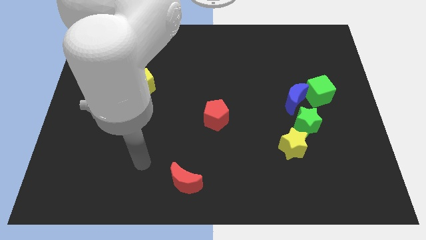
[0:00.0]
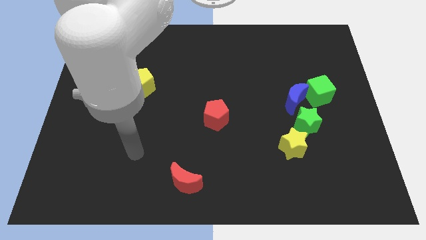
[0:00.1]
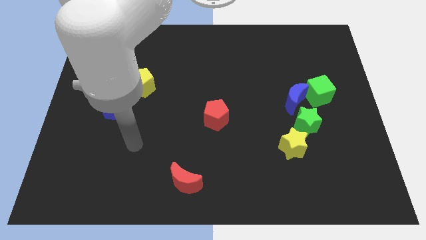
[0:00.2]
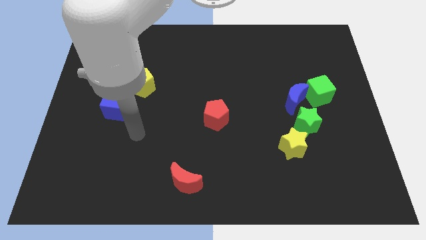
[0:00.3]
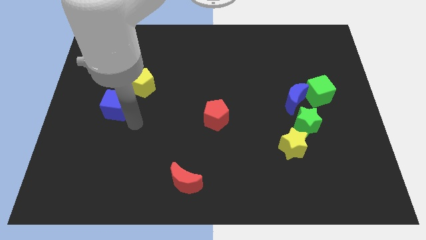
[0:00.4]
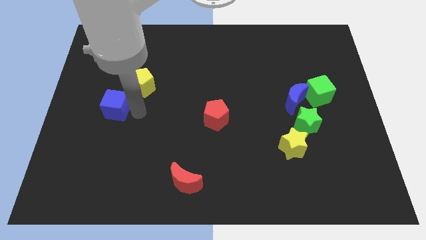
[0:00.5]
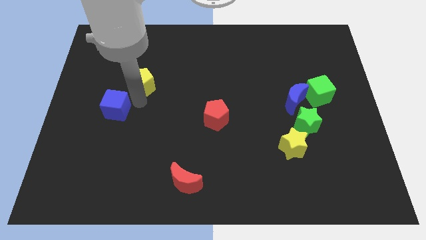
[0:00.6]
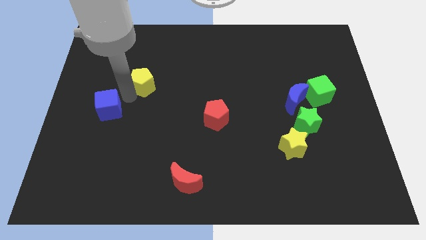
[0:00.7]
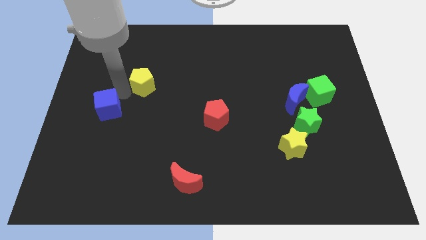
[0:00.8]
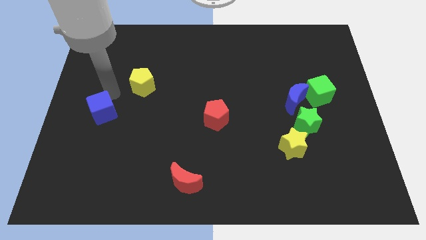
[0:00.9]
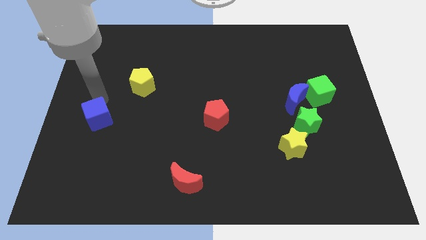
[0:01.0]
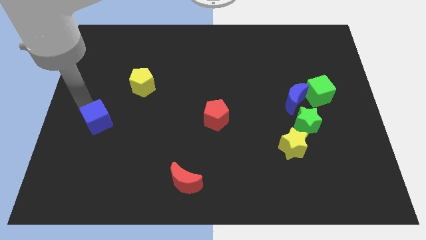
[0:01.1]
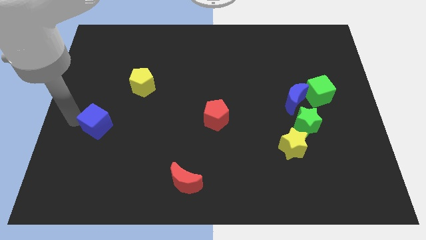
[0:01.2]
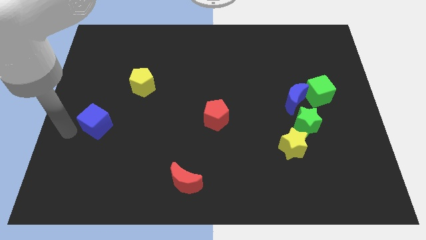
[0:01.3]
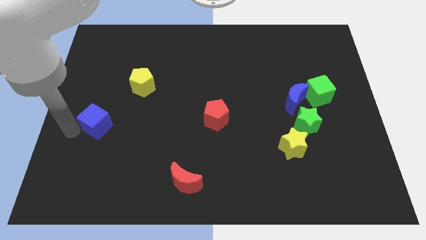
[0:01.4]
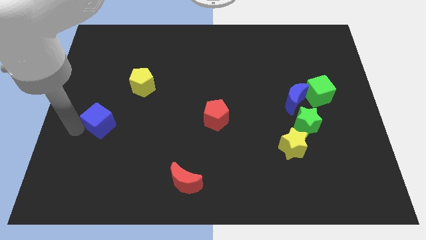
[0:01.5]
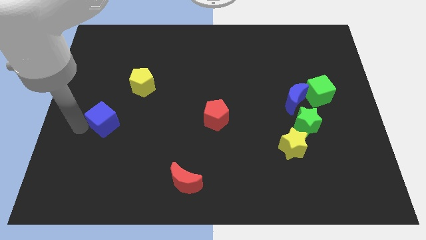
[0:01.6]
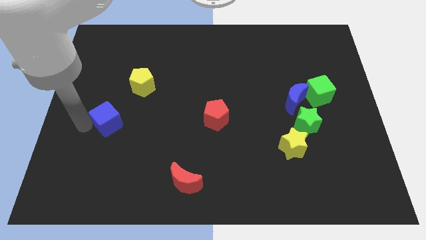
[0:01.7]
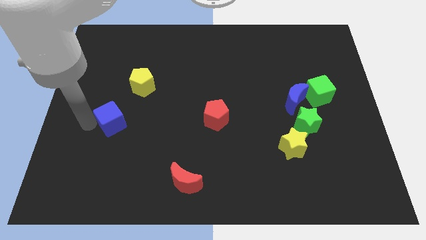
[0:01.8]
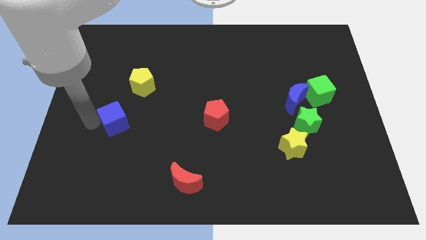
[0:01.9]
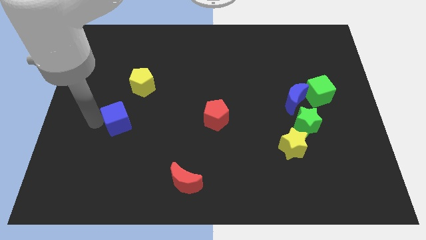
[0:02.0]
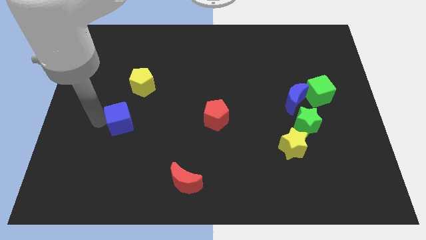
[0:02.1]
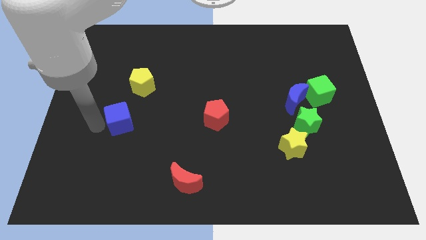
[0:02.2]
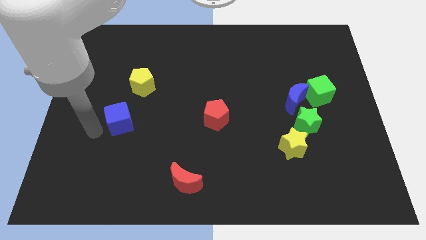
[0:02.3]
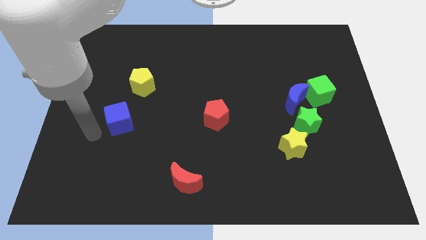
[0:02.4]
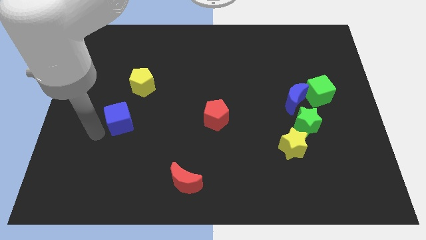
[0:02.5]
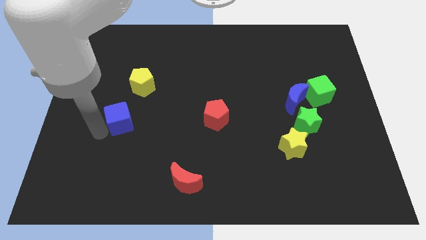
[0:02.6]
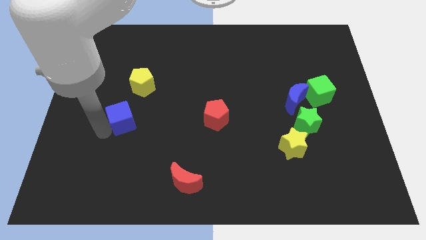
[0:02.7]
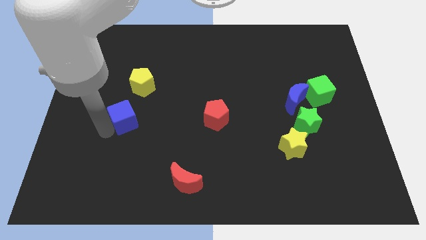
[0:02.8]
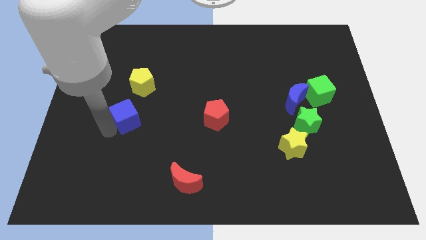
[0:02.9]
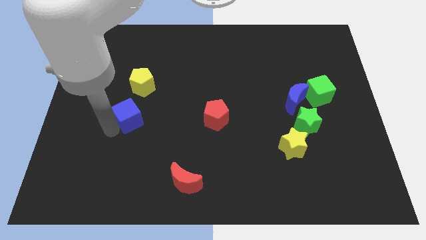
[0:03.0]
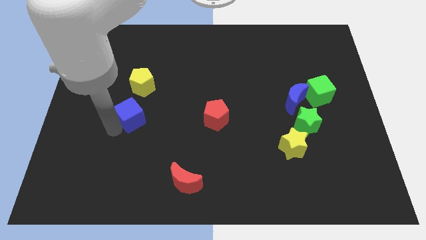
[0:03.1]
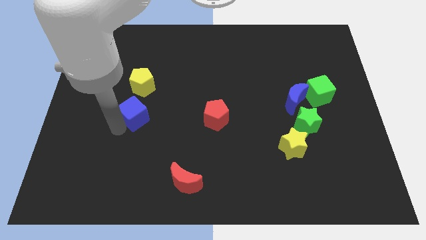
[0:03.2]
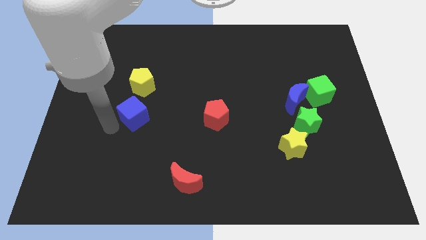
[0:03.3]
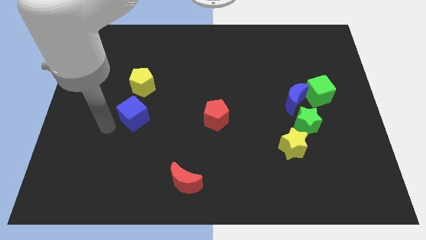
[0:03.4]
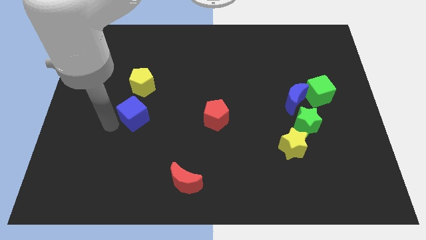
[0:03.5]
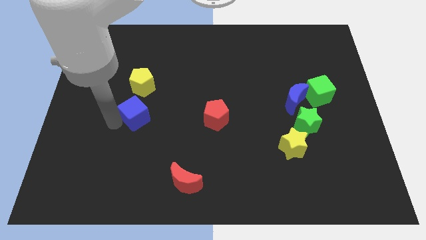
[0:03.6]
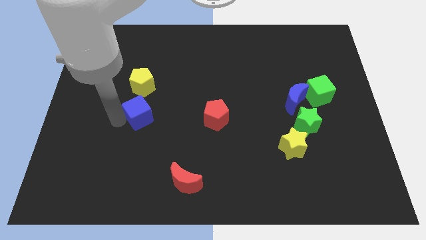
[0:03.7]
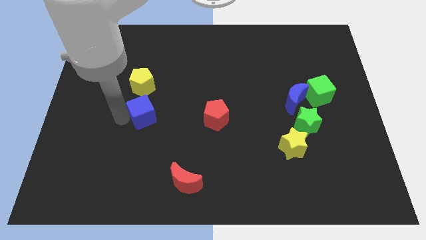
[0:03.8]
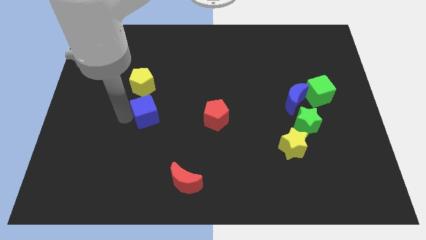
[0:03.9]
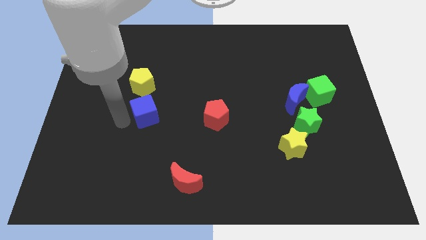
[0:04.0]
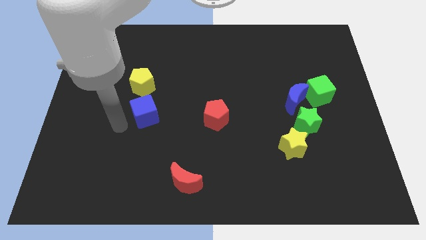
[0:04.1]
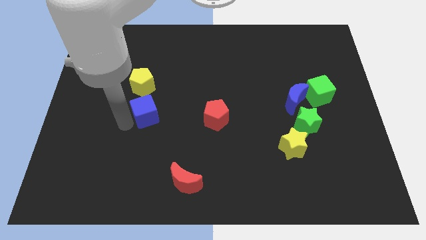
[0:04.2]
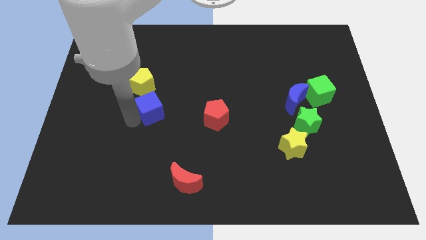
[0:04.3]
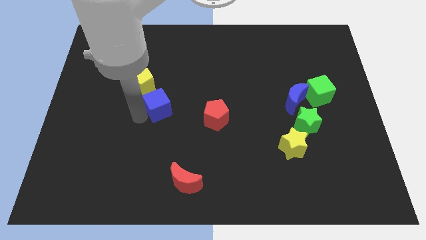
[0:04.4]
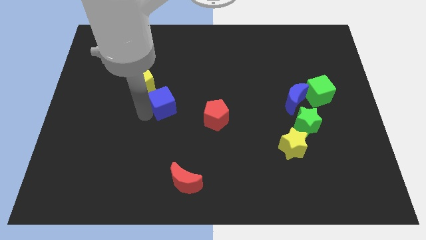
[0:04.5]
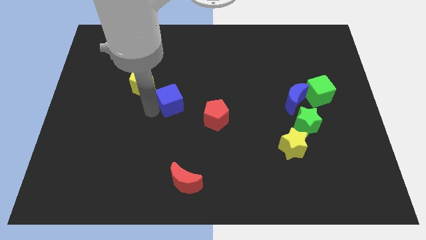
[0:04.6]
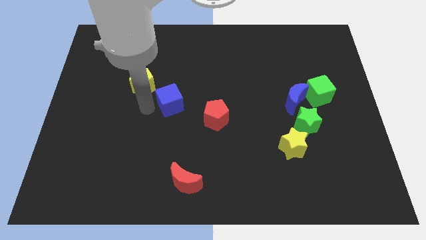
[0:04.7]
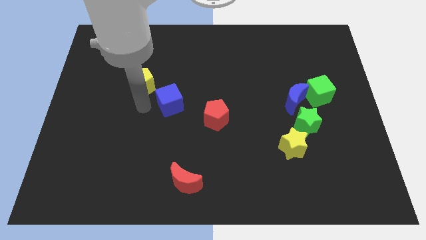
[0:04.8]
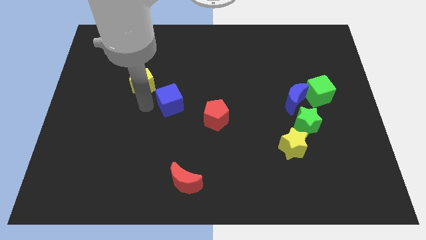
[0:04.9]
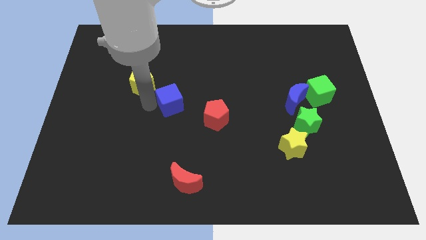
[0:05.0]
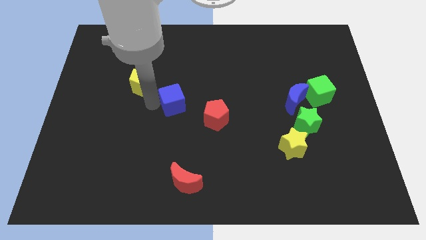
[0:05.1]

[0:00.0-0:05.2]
slide the blue cube to the top left of the red pentagon

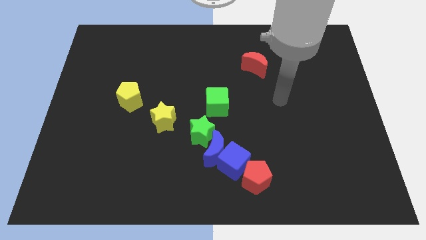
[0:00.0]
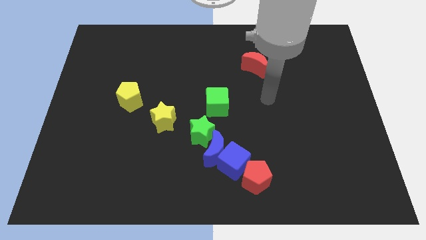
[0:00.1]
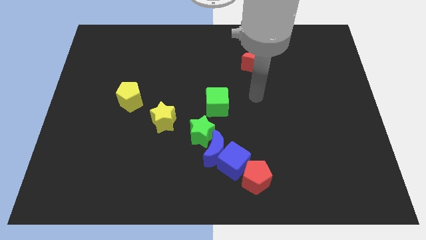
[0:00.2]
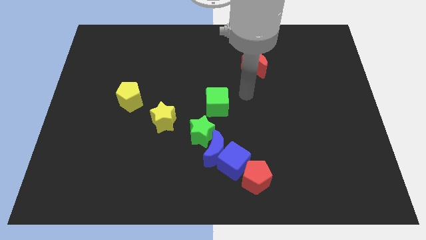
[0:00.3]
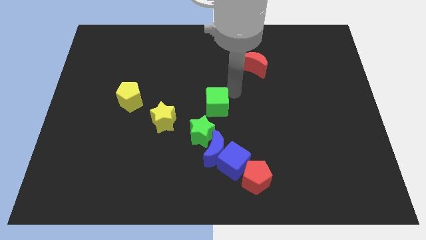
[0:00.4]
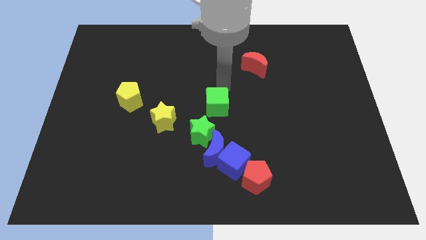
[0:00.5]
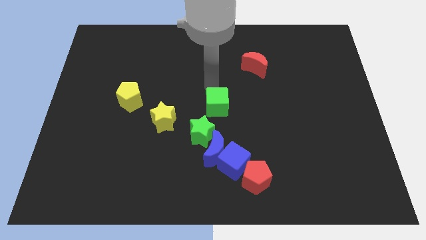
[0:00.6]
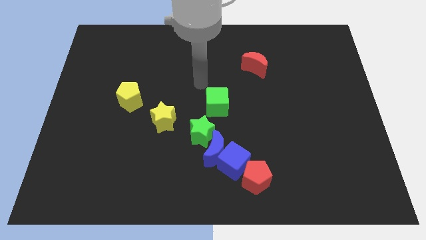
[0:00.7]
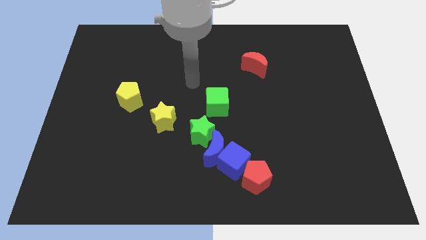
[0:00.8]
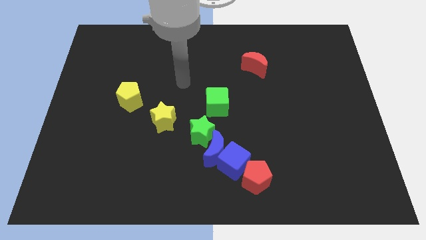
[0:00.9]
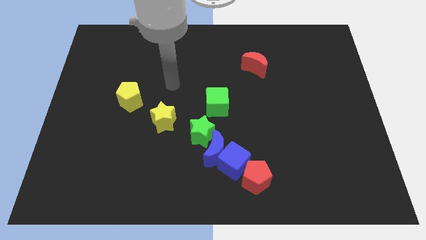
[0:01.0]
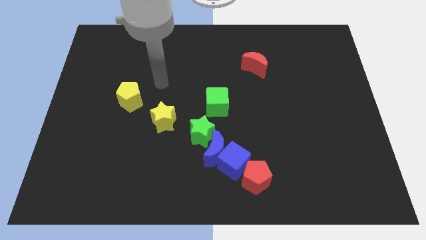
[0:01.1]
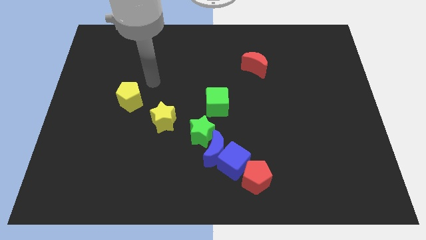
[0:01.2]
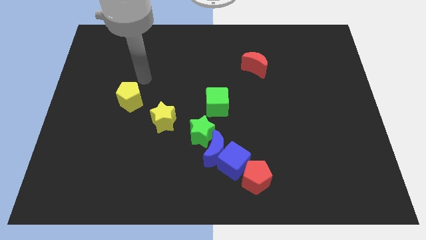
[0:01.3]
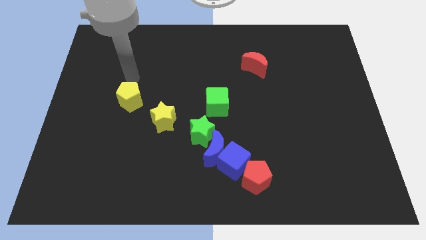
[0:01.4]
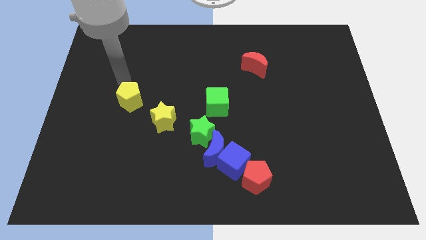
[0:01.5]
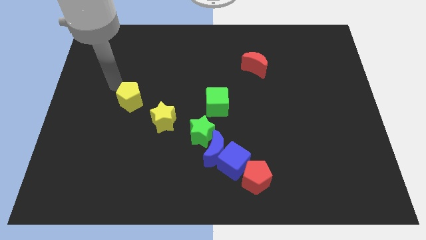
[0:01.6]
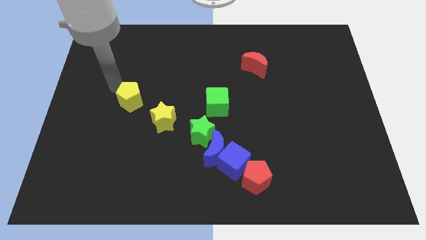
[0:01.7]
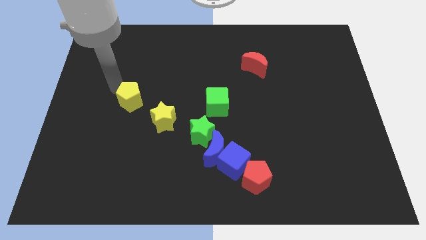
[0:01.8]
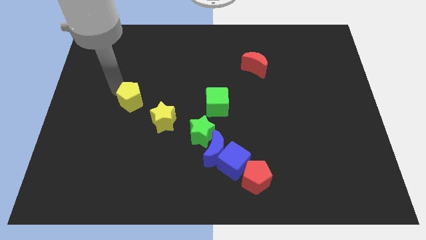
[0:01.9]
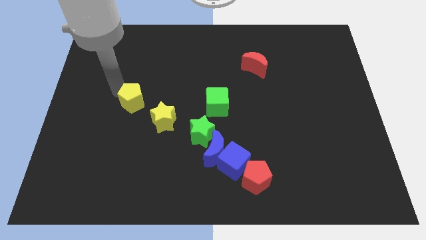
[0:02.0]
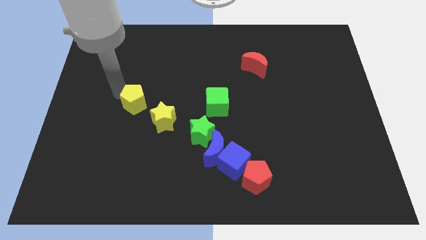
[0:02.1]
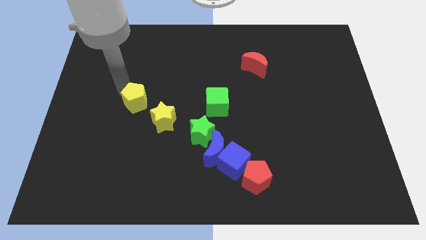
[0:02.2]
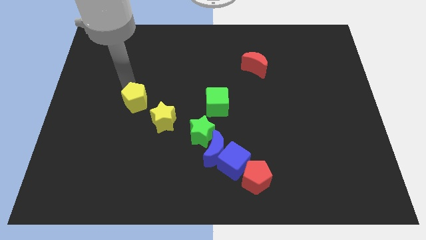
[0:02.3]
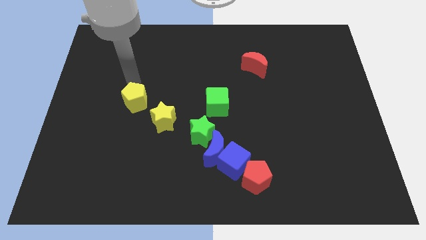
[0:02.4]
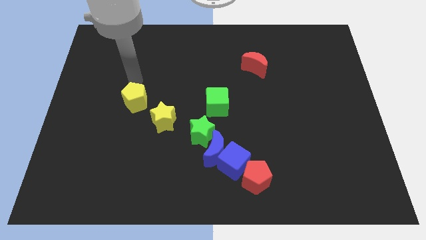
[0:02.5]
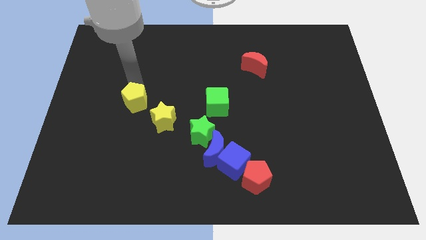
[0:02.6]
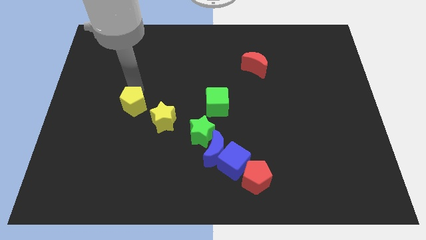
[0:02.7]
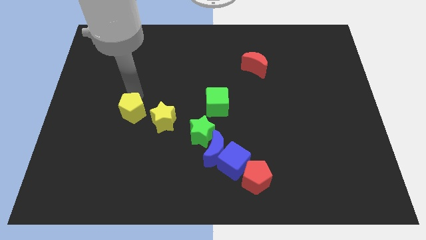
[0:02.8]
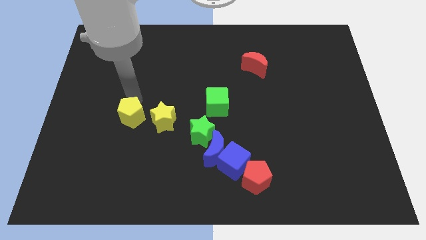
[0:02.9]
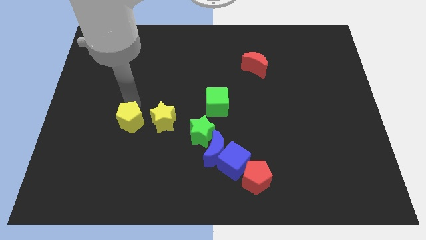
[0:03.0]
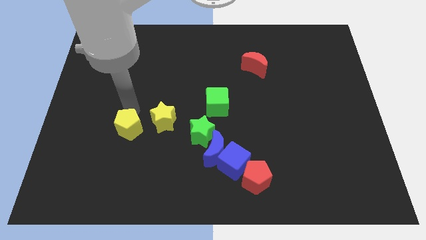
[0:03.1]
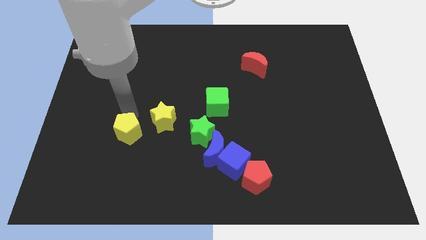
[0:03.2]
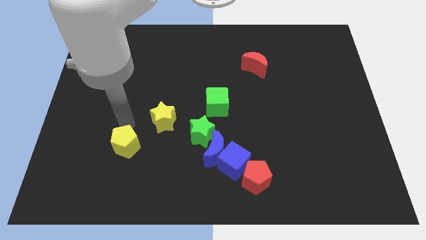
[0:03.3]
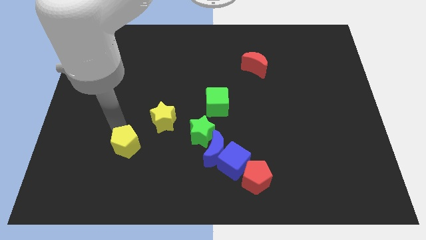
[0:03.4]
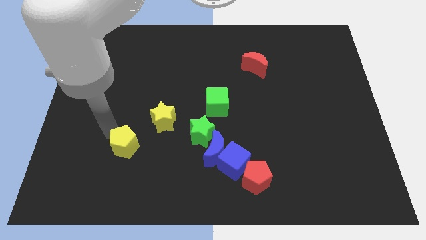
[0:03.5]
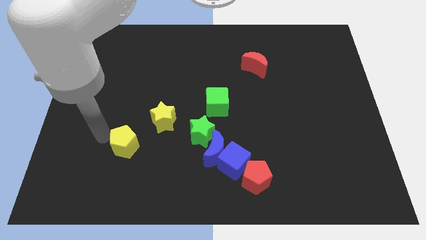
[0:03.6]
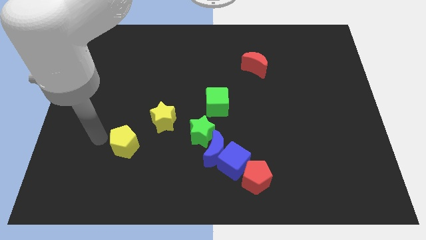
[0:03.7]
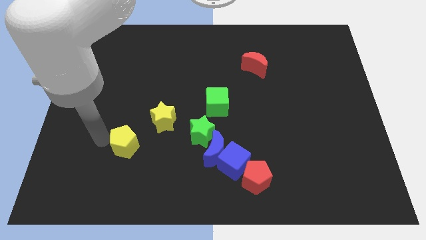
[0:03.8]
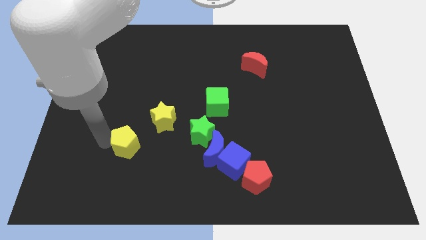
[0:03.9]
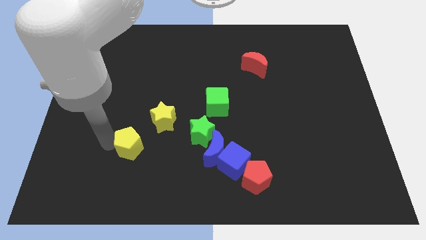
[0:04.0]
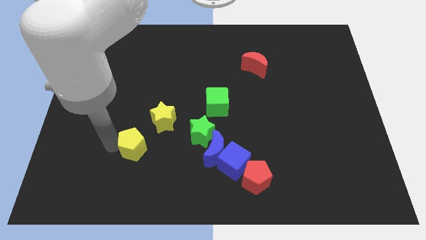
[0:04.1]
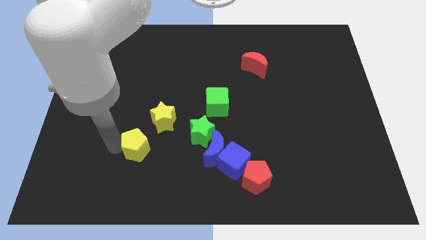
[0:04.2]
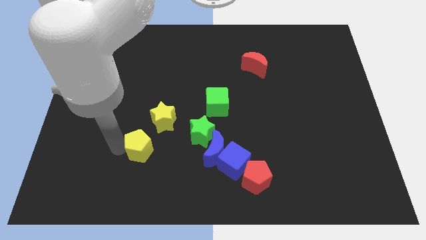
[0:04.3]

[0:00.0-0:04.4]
move the yellow pentagon left of the blue moon
